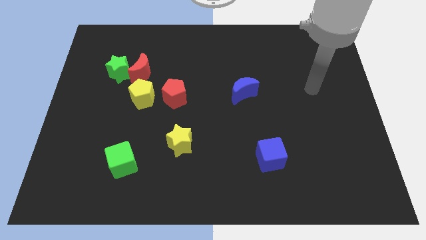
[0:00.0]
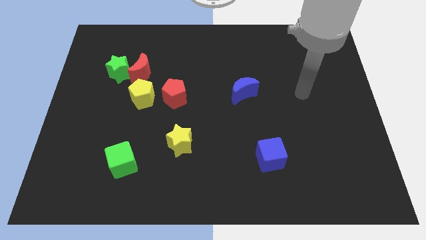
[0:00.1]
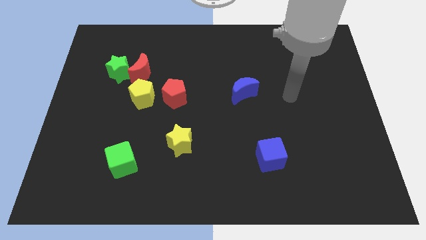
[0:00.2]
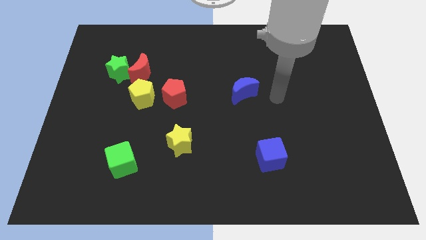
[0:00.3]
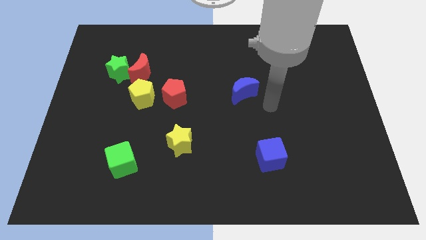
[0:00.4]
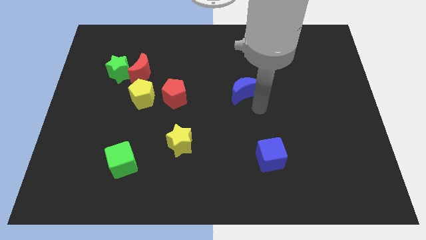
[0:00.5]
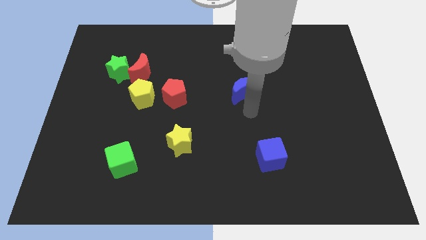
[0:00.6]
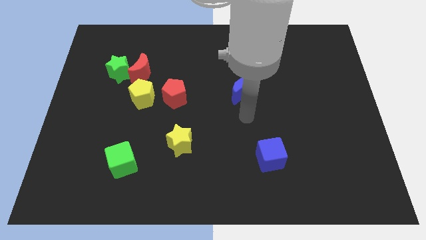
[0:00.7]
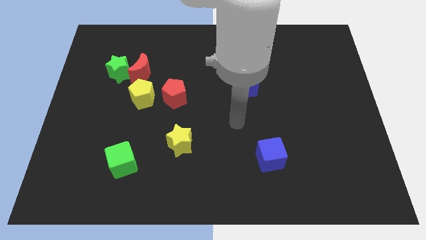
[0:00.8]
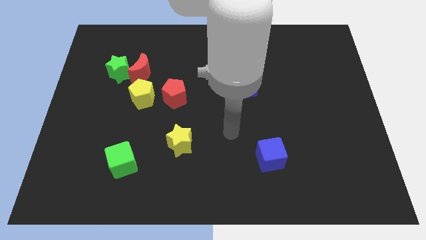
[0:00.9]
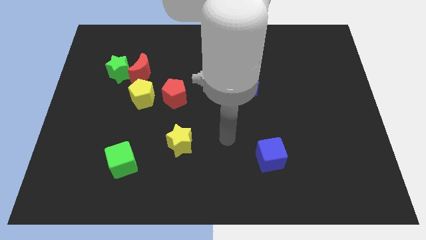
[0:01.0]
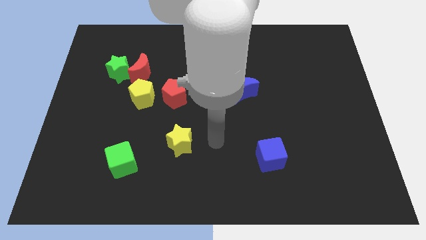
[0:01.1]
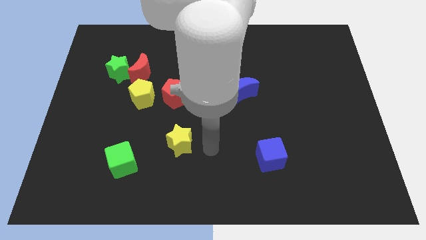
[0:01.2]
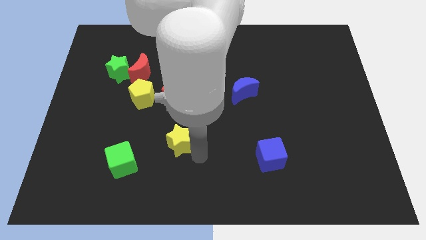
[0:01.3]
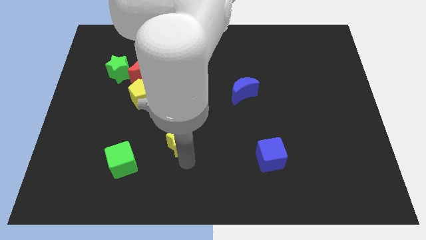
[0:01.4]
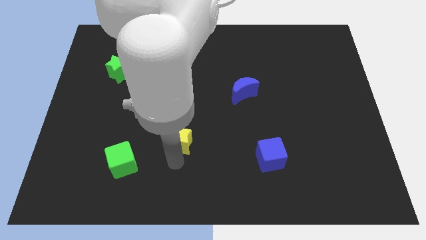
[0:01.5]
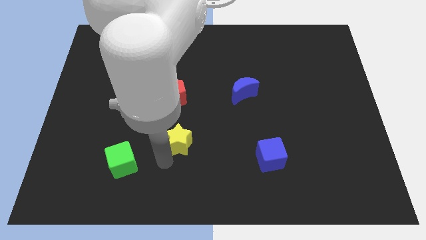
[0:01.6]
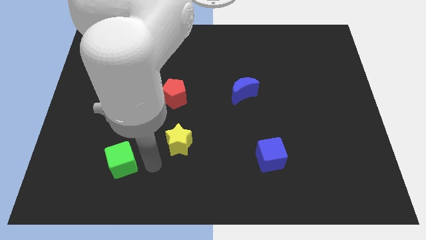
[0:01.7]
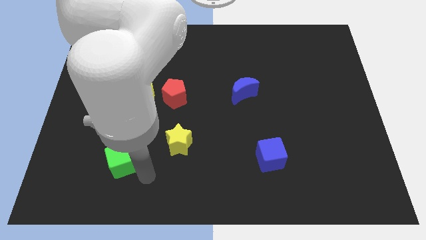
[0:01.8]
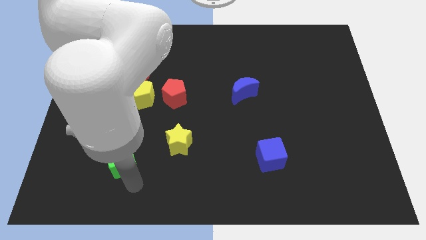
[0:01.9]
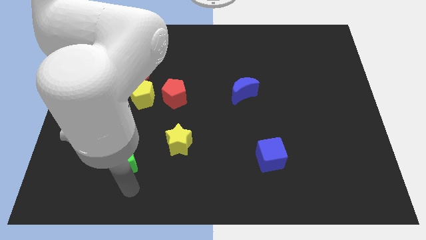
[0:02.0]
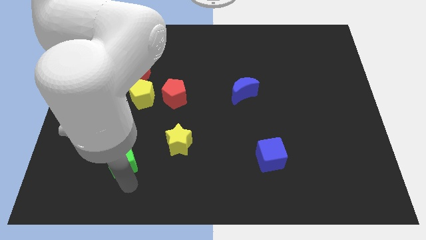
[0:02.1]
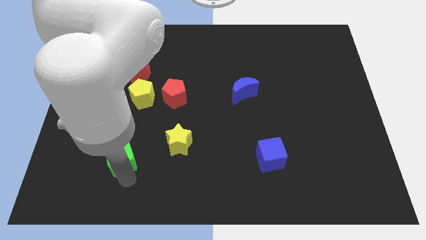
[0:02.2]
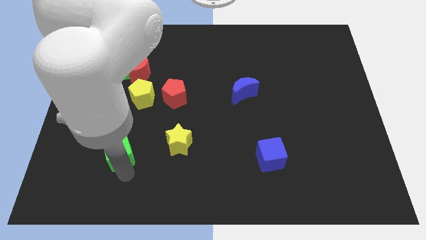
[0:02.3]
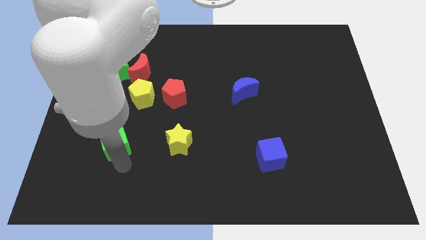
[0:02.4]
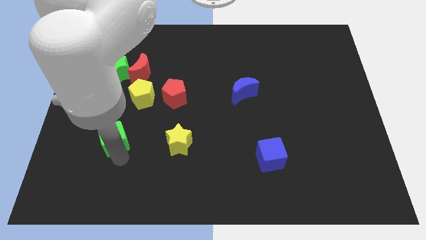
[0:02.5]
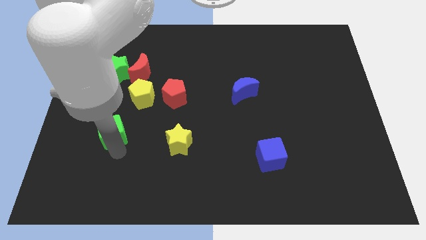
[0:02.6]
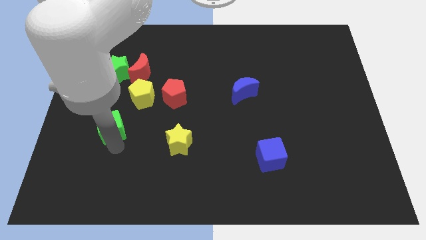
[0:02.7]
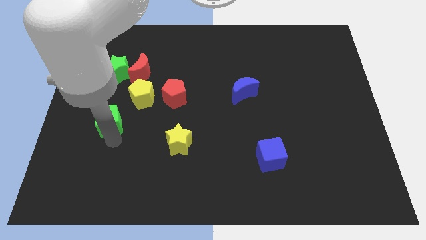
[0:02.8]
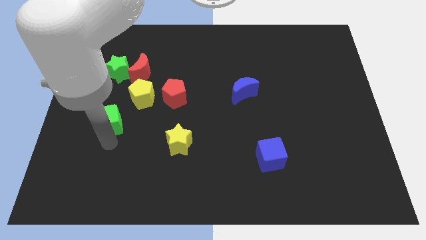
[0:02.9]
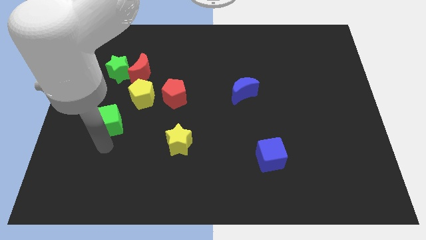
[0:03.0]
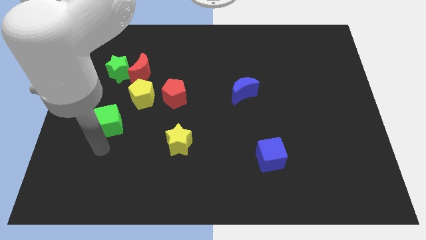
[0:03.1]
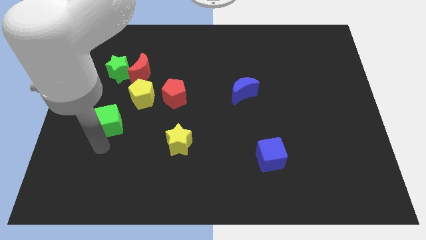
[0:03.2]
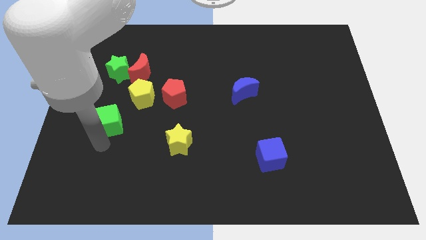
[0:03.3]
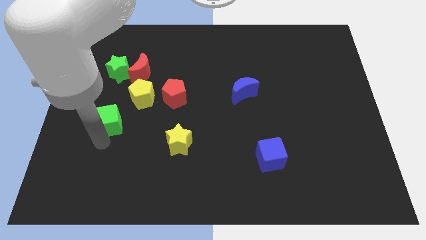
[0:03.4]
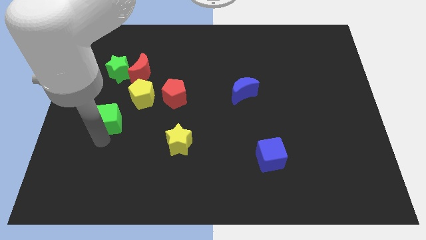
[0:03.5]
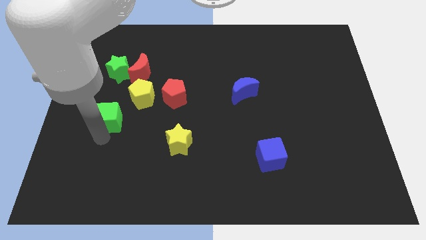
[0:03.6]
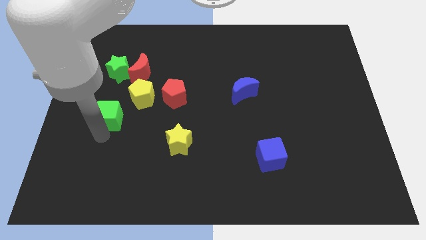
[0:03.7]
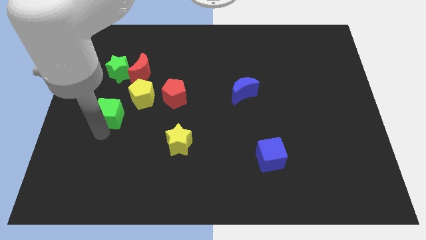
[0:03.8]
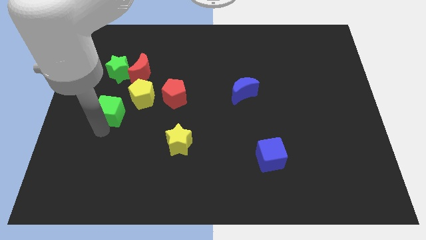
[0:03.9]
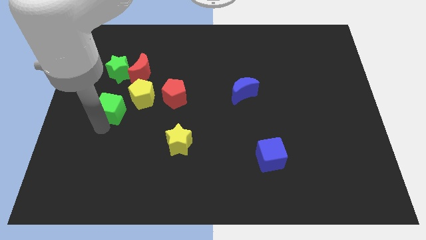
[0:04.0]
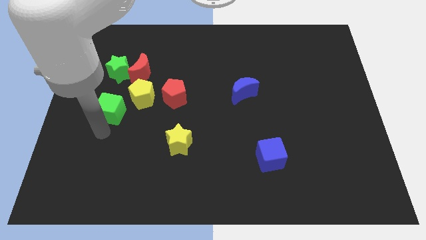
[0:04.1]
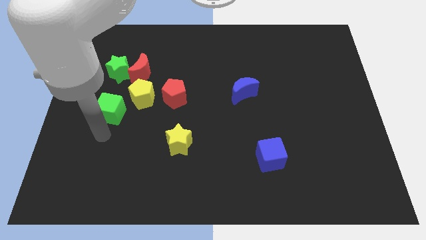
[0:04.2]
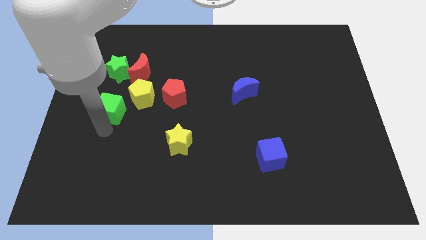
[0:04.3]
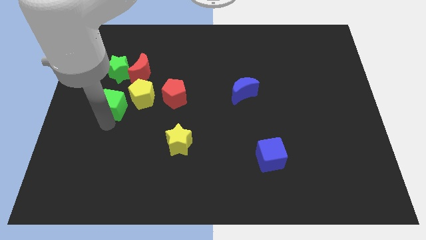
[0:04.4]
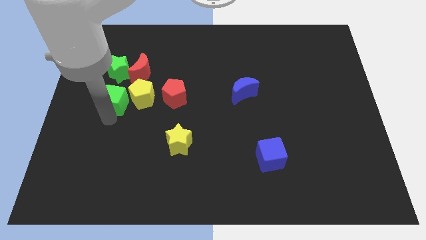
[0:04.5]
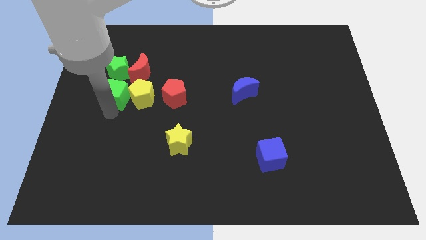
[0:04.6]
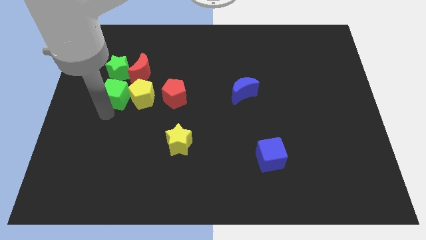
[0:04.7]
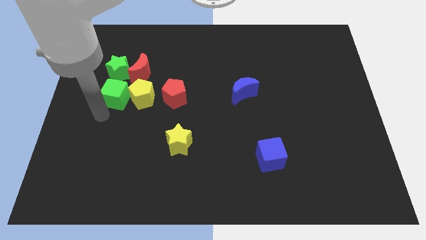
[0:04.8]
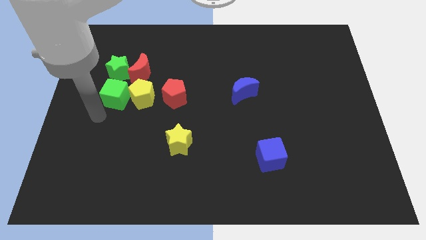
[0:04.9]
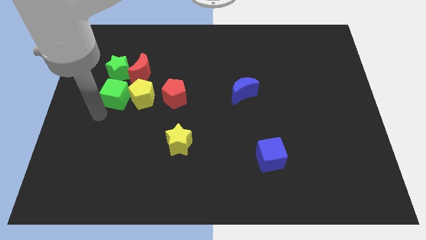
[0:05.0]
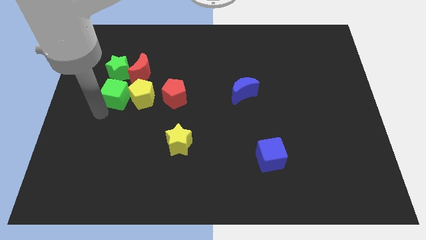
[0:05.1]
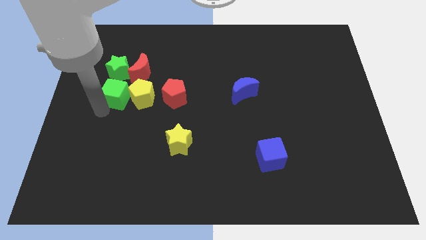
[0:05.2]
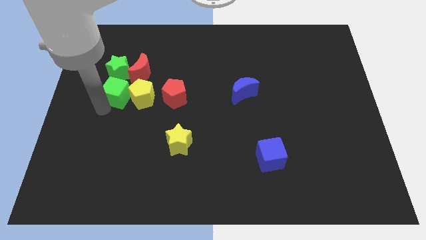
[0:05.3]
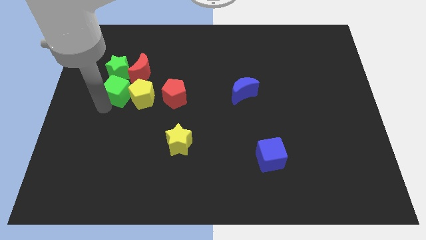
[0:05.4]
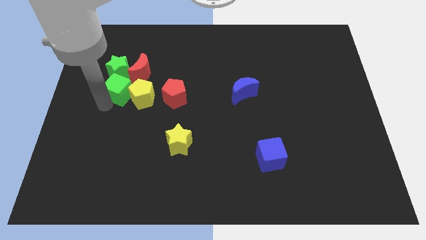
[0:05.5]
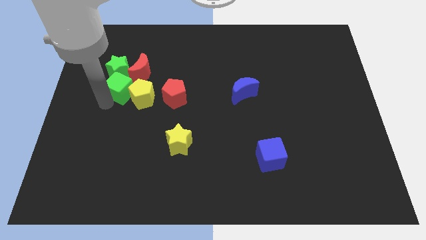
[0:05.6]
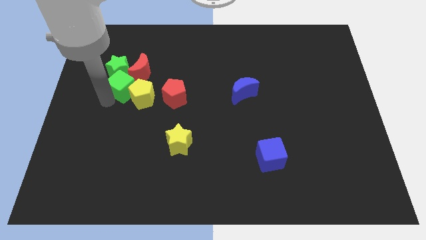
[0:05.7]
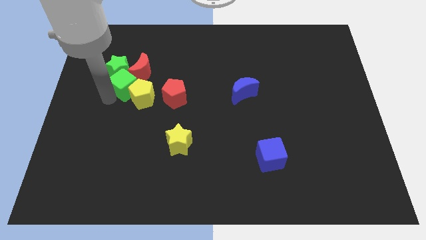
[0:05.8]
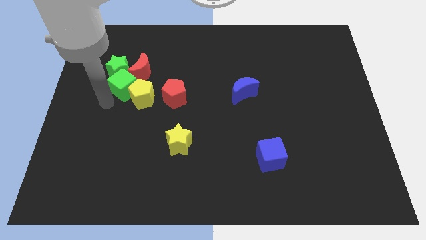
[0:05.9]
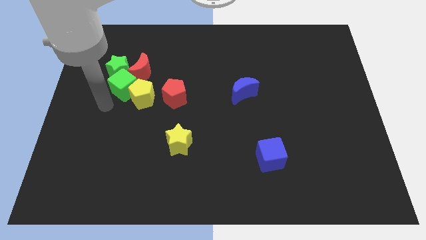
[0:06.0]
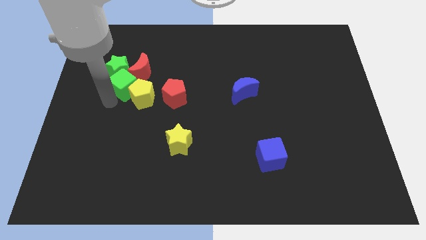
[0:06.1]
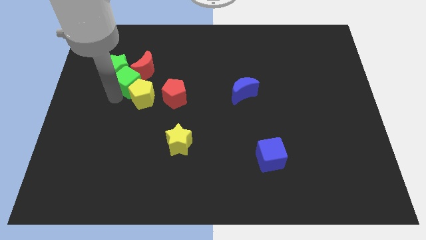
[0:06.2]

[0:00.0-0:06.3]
put the green cube close to the red moon

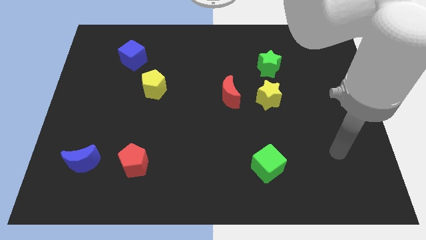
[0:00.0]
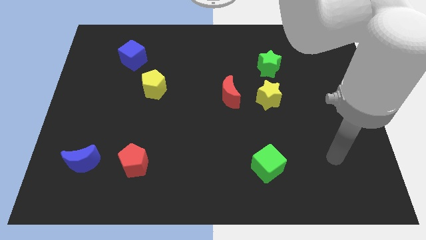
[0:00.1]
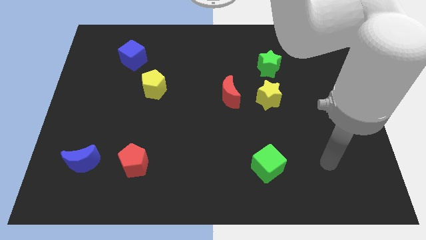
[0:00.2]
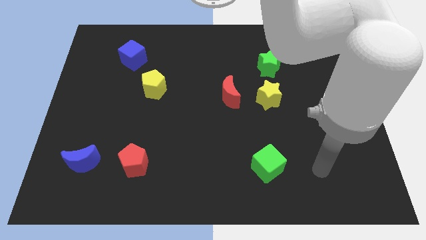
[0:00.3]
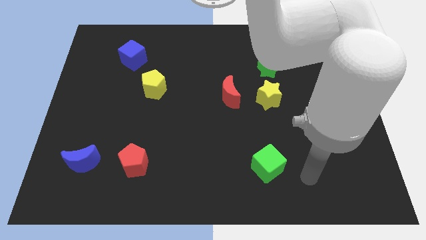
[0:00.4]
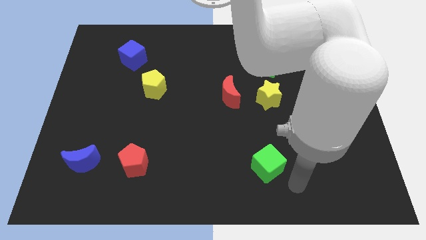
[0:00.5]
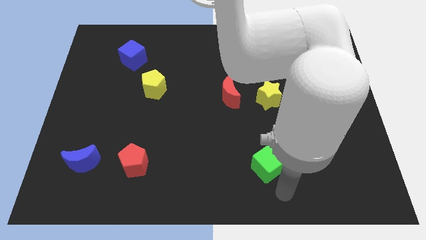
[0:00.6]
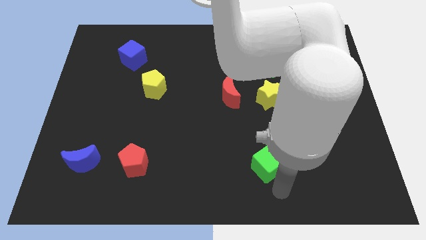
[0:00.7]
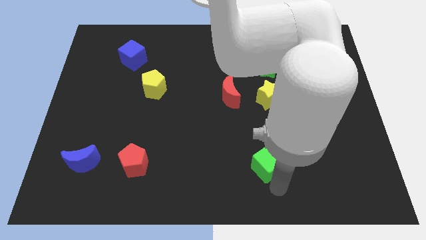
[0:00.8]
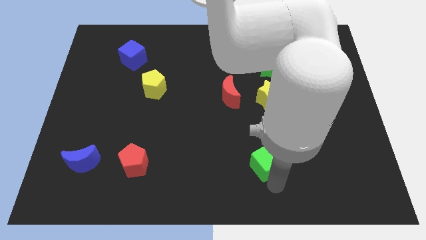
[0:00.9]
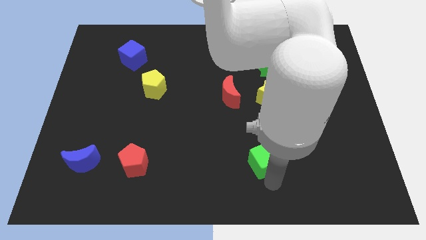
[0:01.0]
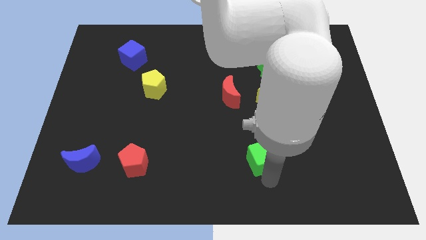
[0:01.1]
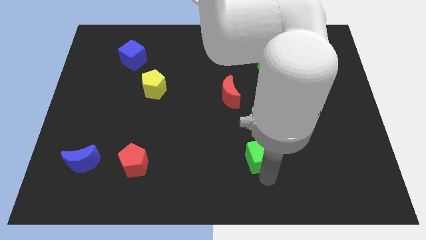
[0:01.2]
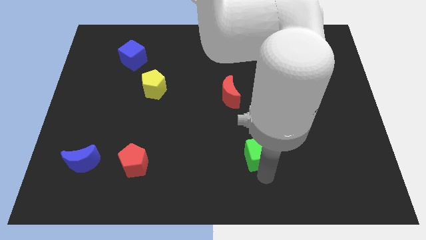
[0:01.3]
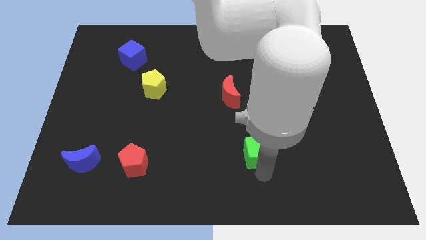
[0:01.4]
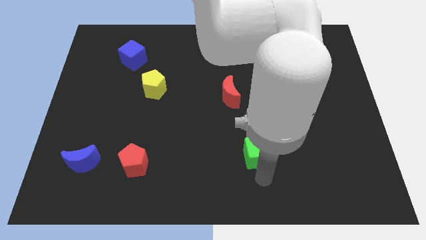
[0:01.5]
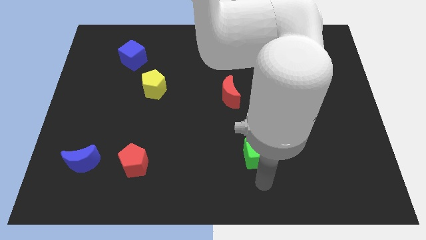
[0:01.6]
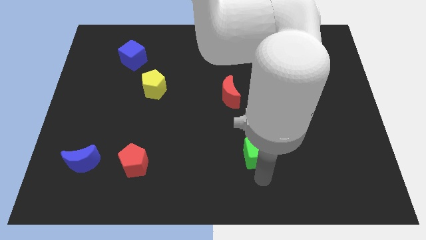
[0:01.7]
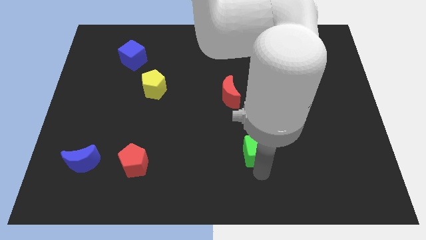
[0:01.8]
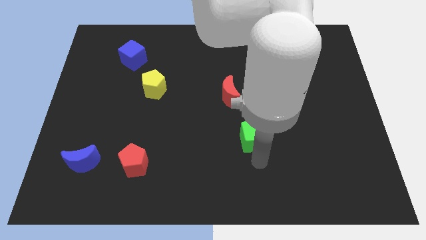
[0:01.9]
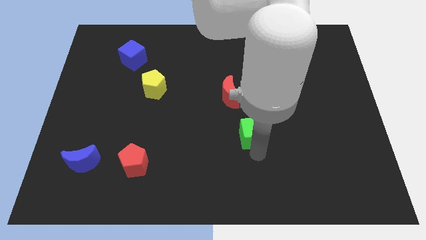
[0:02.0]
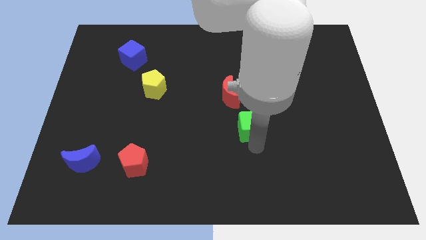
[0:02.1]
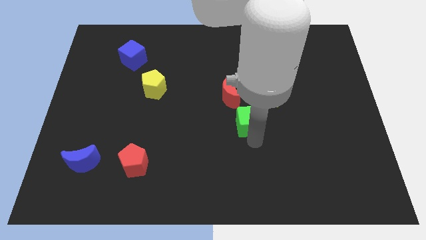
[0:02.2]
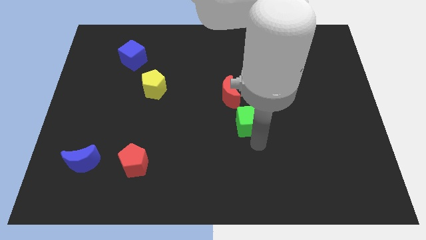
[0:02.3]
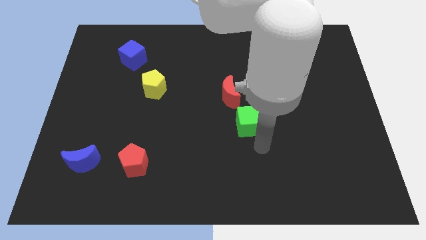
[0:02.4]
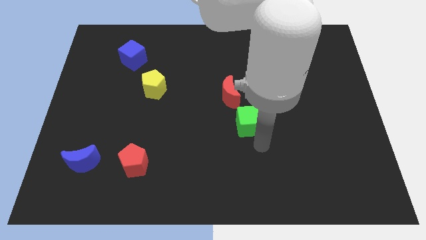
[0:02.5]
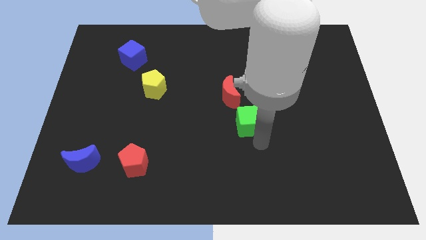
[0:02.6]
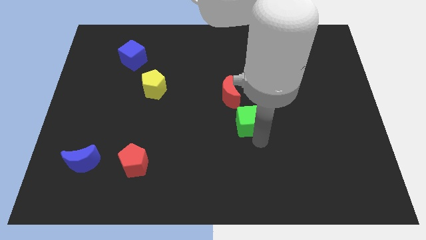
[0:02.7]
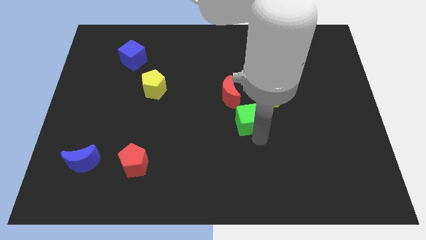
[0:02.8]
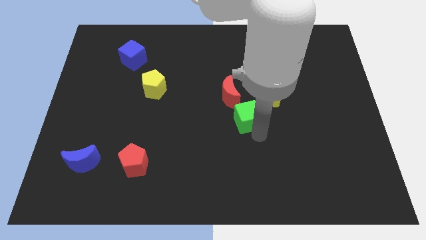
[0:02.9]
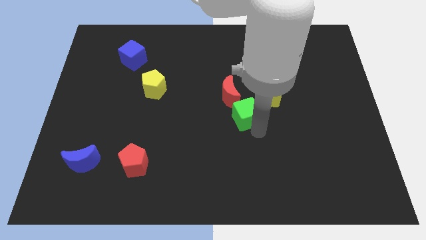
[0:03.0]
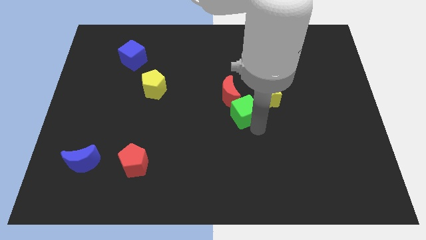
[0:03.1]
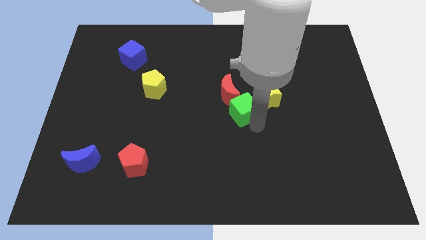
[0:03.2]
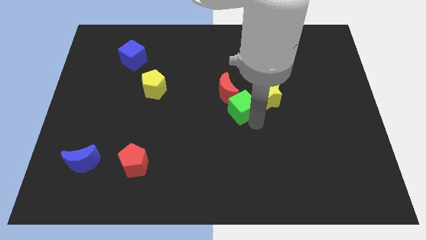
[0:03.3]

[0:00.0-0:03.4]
push the green cube close to the red moon
